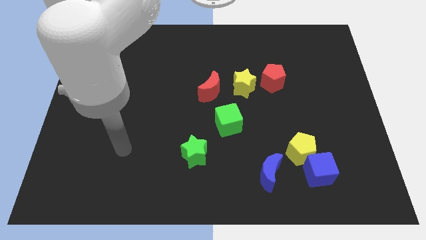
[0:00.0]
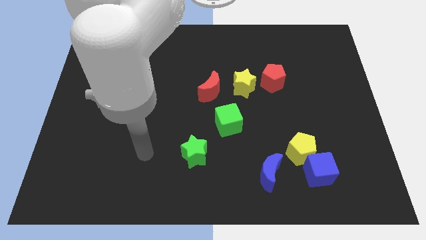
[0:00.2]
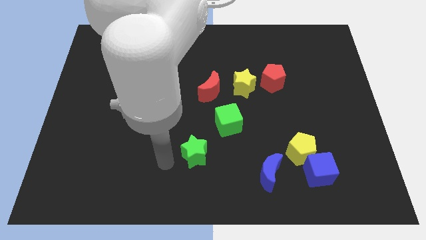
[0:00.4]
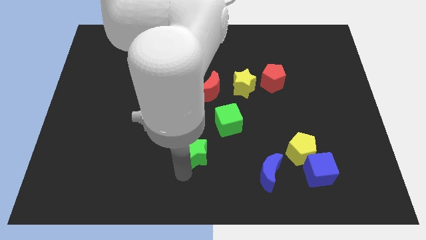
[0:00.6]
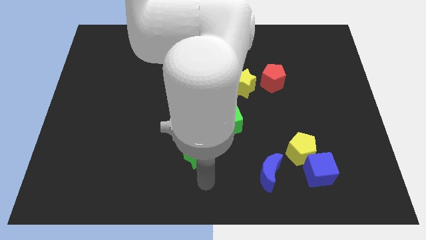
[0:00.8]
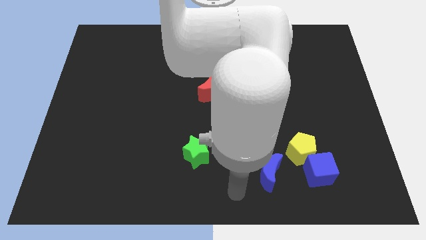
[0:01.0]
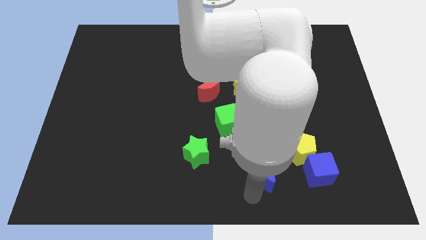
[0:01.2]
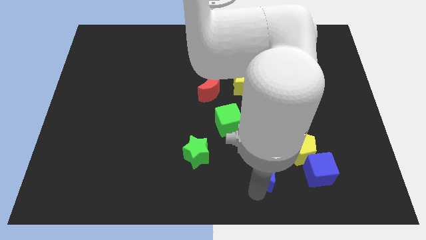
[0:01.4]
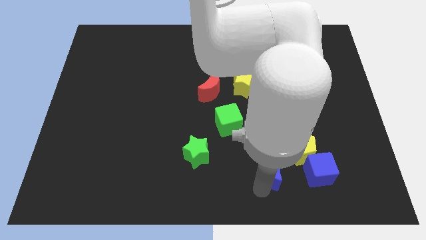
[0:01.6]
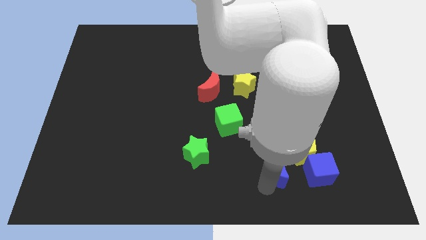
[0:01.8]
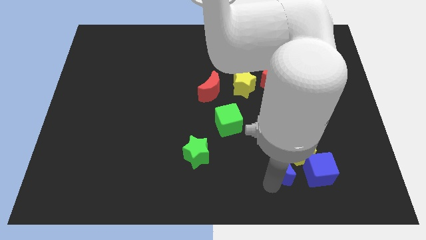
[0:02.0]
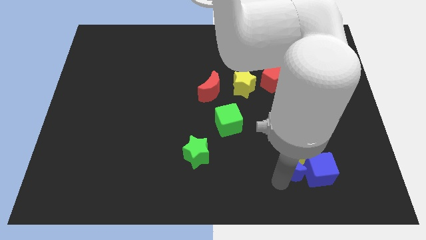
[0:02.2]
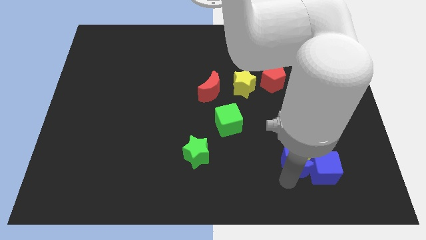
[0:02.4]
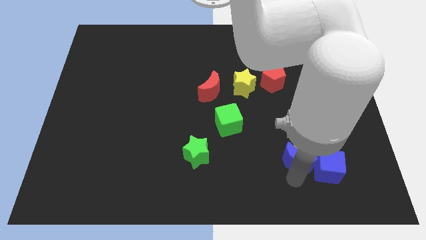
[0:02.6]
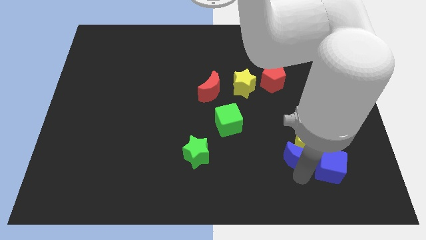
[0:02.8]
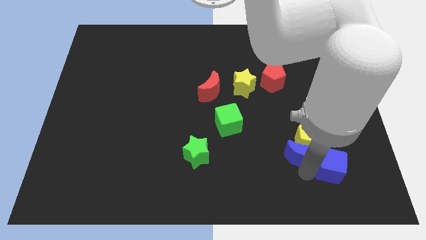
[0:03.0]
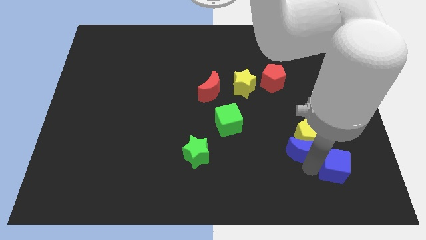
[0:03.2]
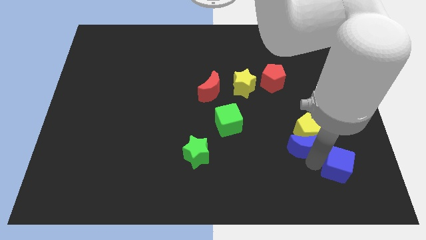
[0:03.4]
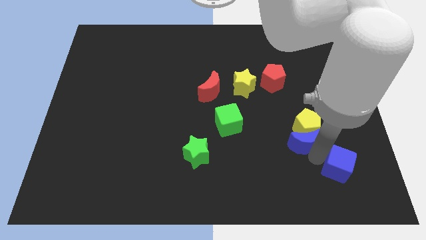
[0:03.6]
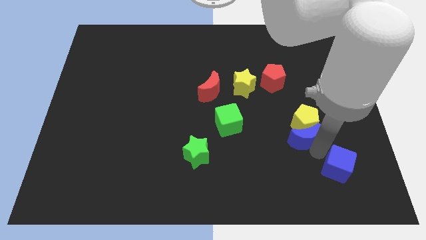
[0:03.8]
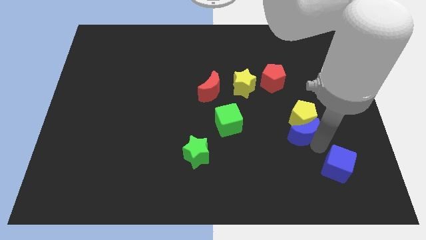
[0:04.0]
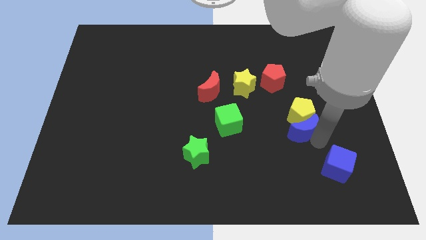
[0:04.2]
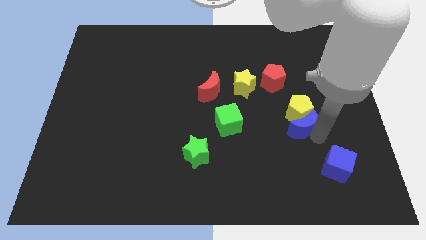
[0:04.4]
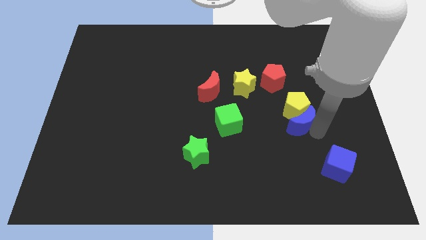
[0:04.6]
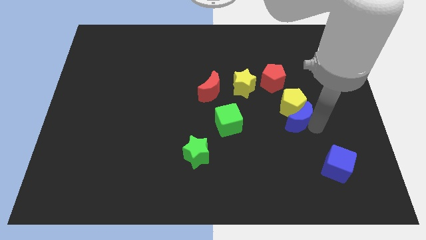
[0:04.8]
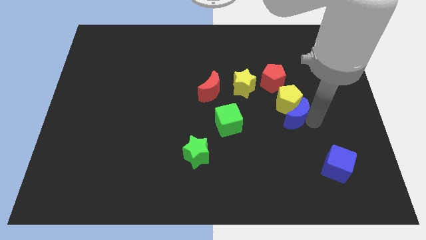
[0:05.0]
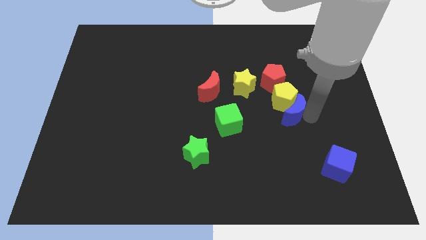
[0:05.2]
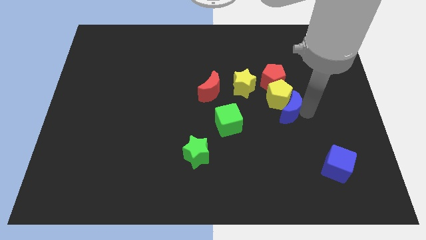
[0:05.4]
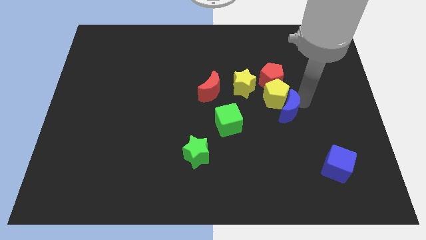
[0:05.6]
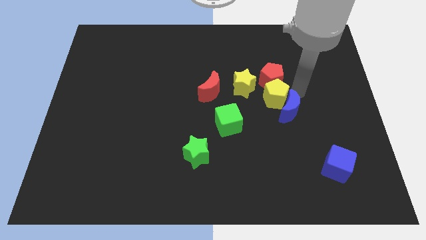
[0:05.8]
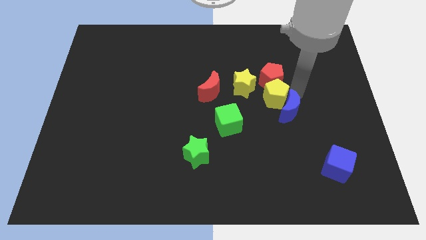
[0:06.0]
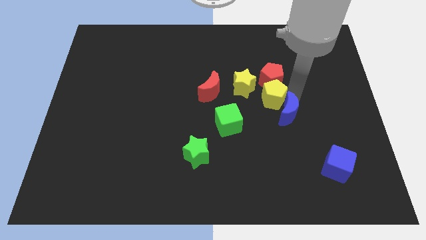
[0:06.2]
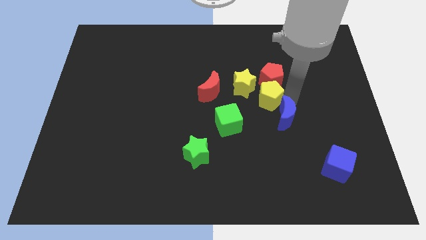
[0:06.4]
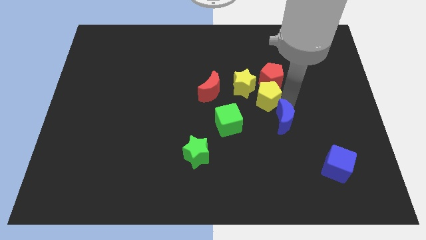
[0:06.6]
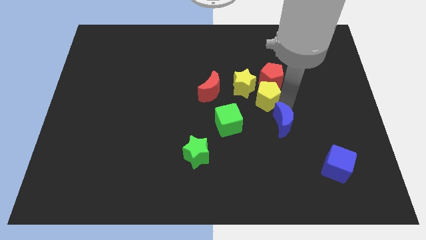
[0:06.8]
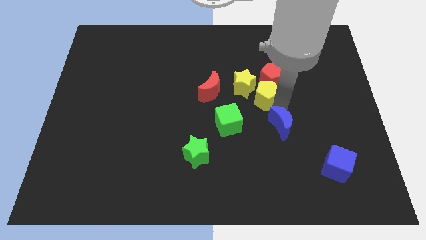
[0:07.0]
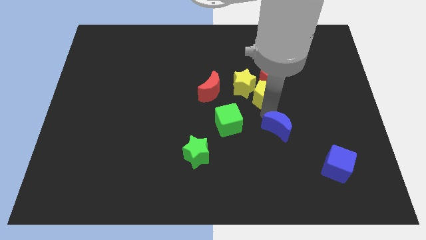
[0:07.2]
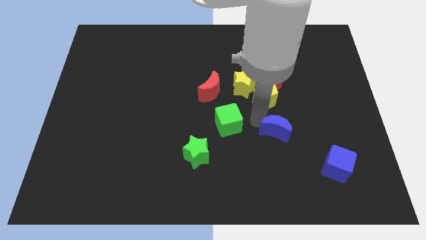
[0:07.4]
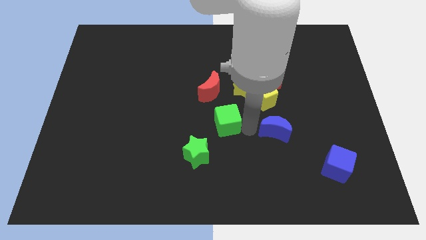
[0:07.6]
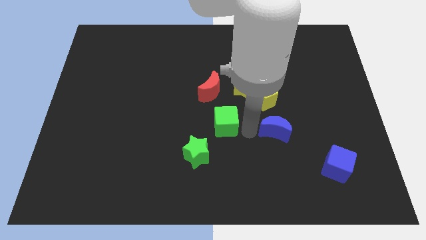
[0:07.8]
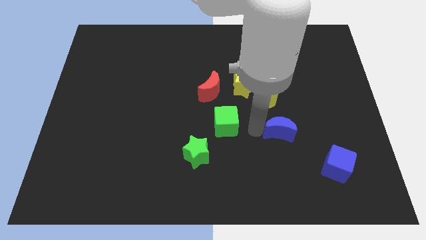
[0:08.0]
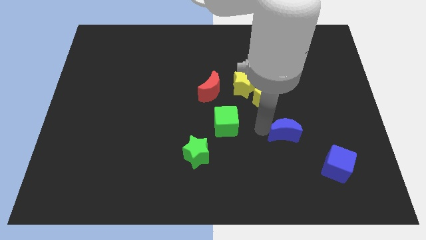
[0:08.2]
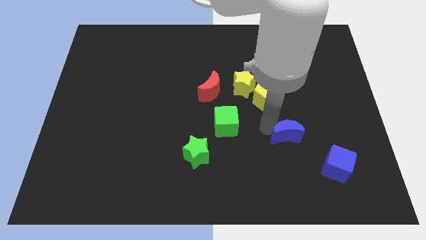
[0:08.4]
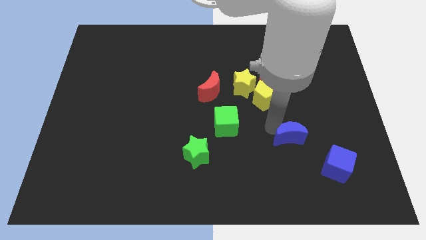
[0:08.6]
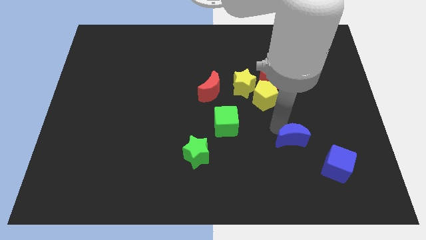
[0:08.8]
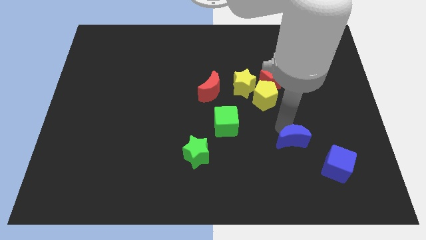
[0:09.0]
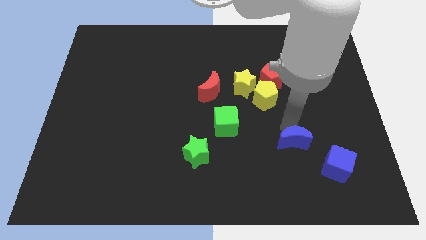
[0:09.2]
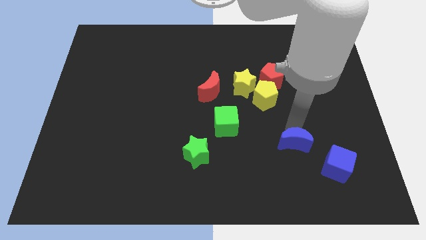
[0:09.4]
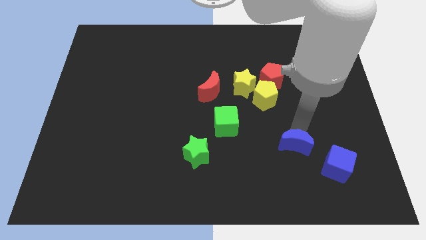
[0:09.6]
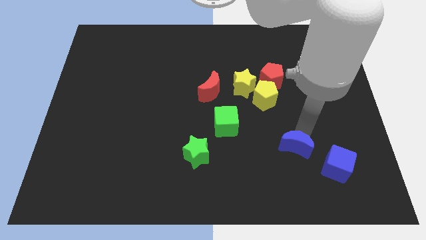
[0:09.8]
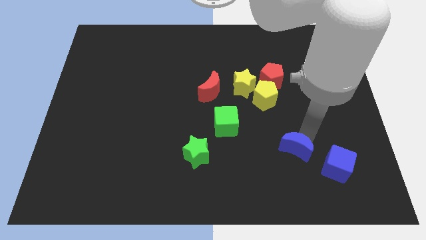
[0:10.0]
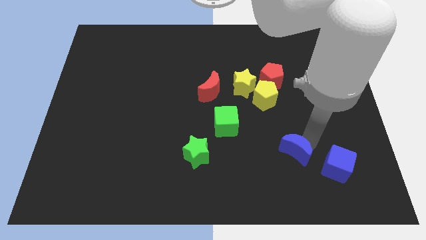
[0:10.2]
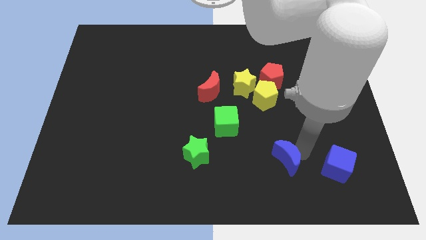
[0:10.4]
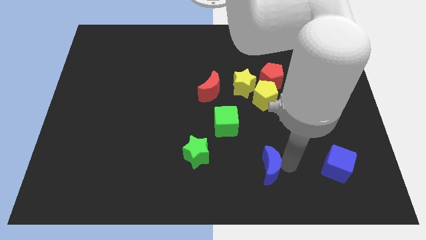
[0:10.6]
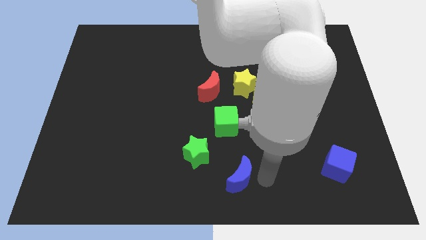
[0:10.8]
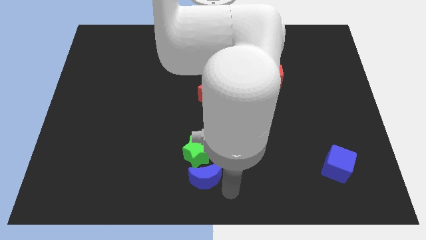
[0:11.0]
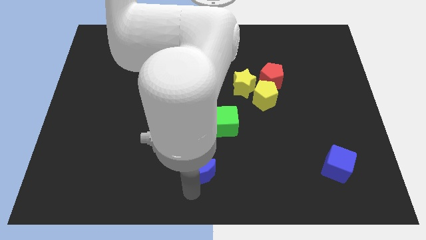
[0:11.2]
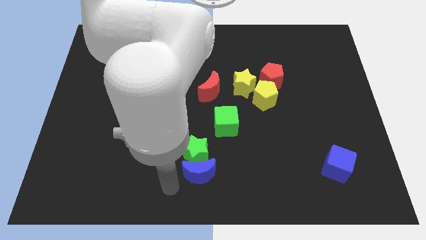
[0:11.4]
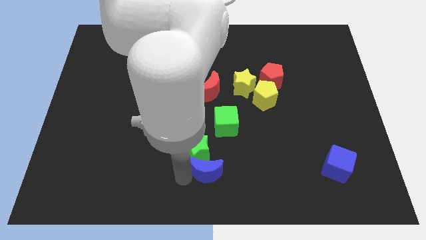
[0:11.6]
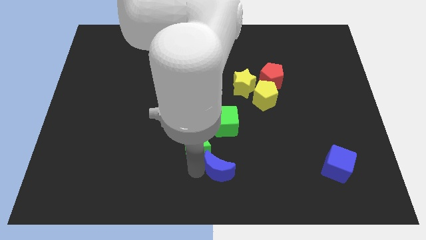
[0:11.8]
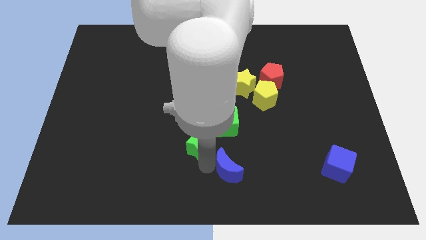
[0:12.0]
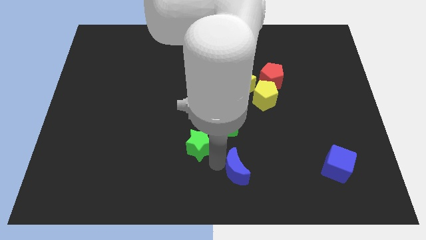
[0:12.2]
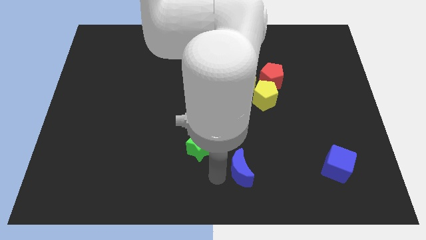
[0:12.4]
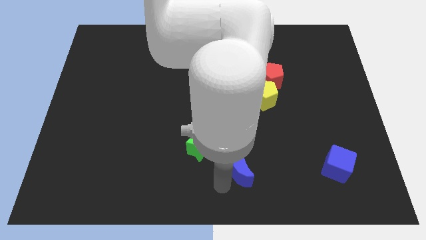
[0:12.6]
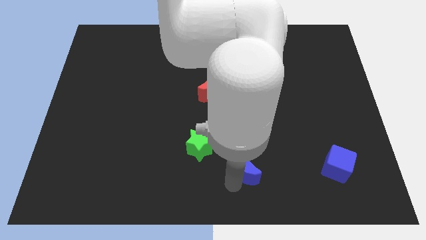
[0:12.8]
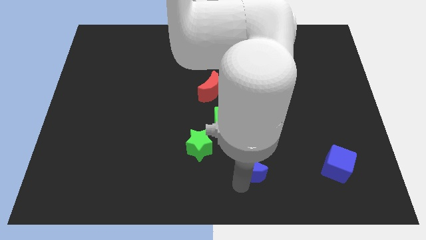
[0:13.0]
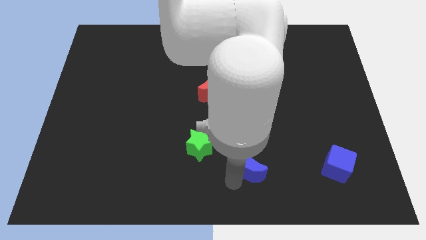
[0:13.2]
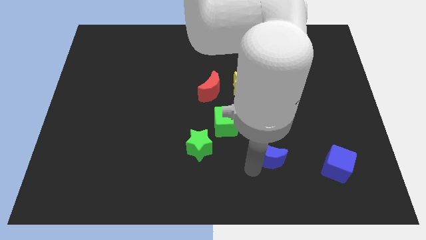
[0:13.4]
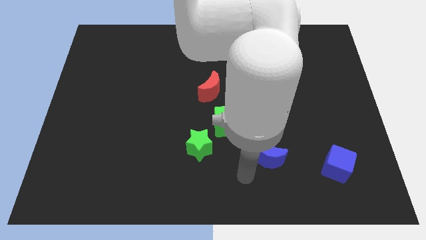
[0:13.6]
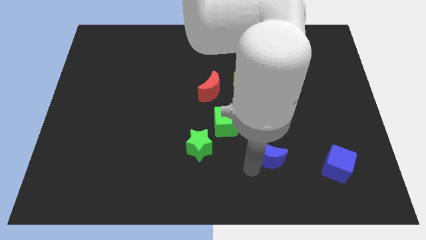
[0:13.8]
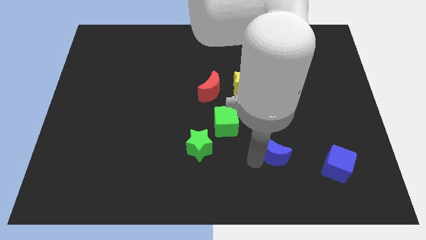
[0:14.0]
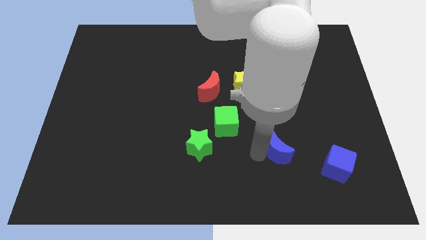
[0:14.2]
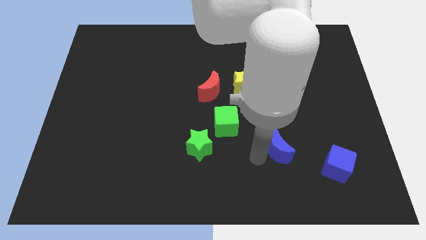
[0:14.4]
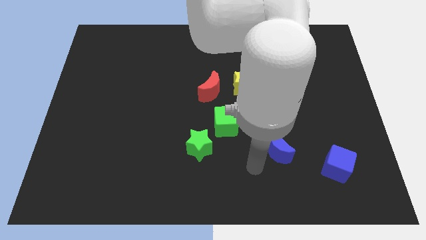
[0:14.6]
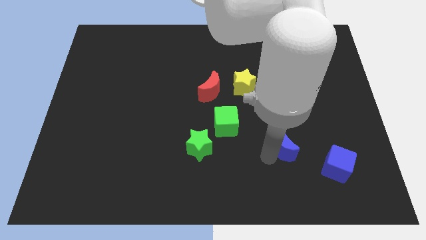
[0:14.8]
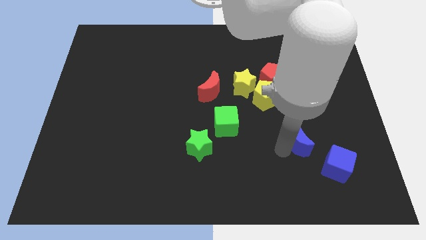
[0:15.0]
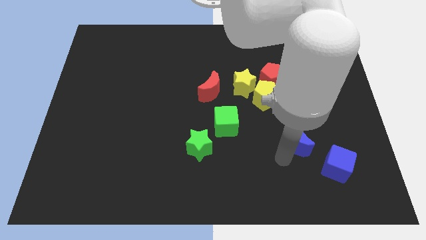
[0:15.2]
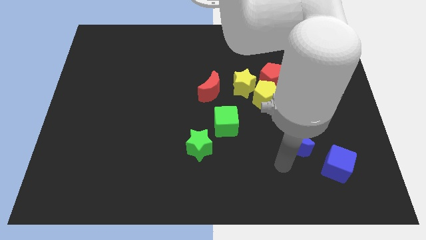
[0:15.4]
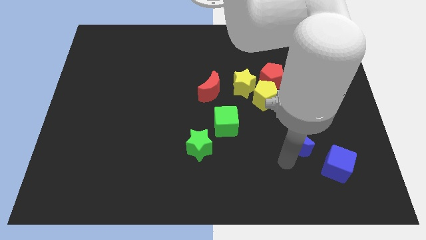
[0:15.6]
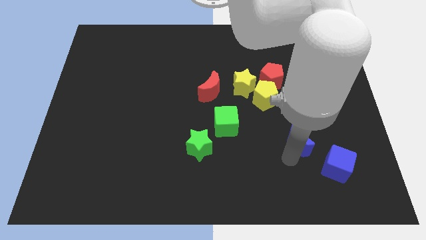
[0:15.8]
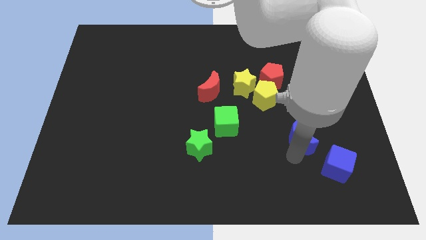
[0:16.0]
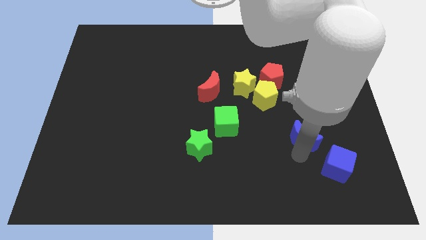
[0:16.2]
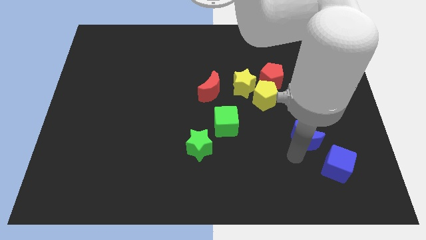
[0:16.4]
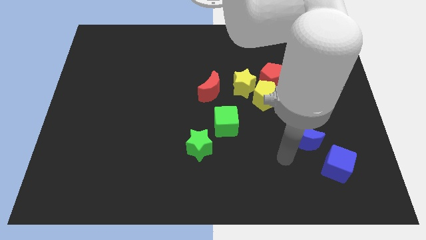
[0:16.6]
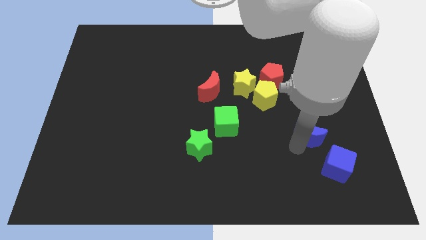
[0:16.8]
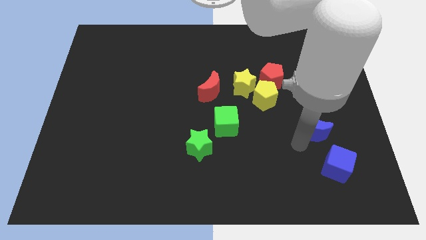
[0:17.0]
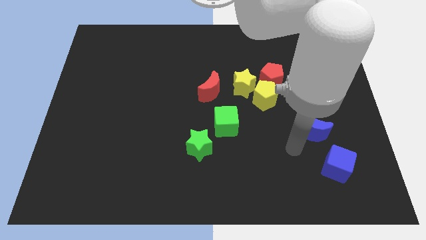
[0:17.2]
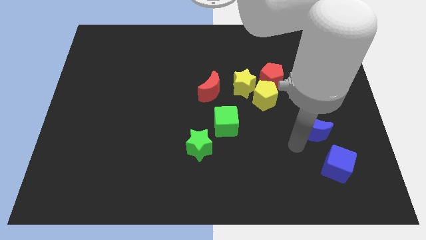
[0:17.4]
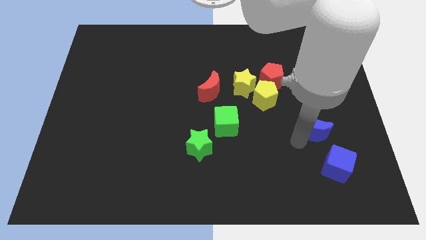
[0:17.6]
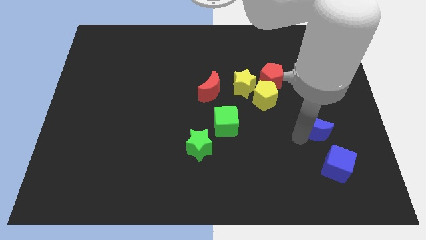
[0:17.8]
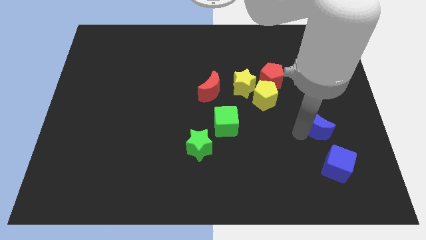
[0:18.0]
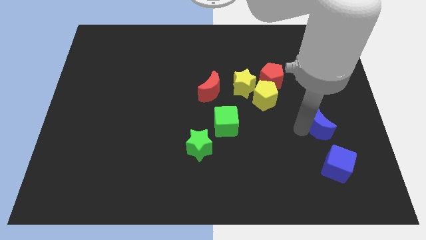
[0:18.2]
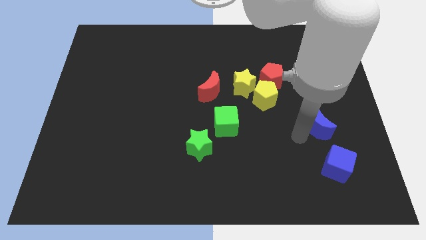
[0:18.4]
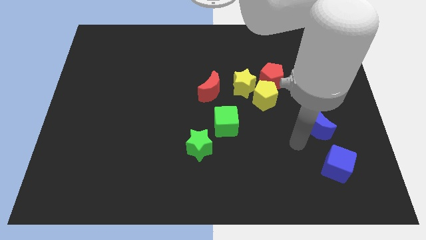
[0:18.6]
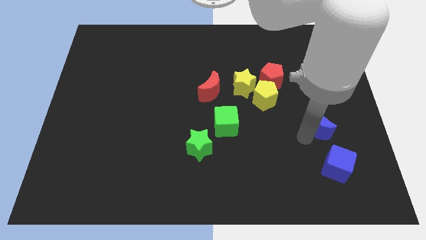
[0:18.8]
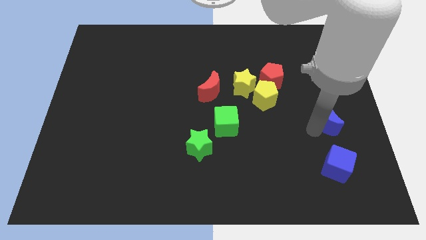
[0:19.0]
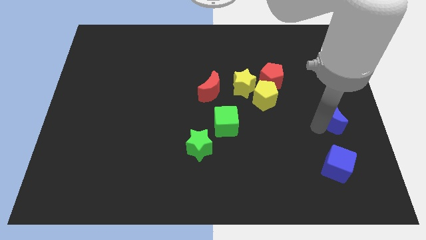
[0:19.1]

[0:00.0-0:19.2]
move the blue moon to the right side of the board
